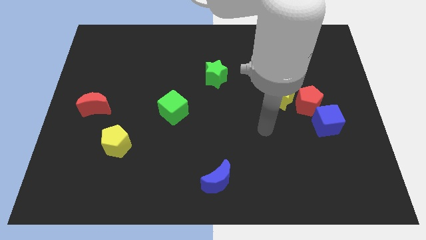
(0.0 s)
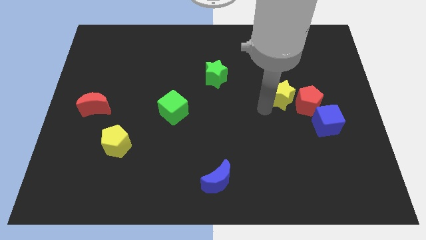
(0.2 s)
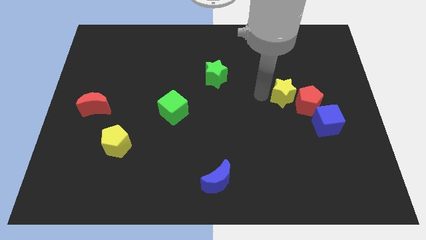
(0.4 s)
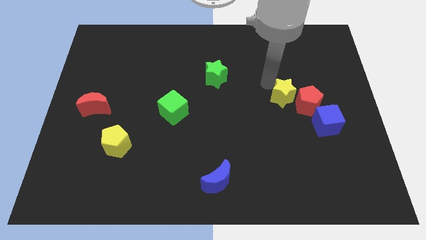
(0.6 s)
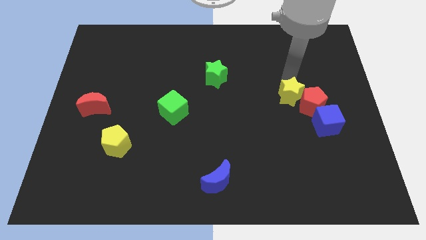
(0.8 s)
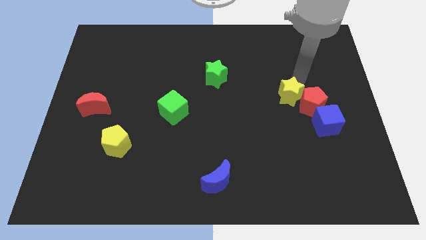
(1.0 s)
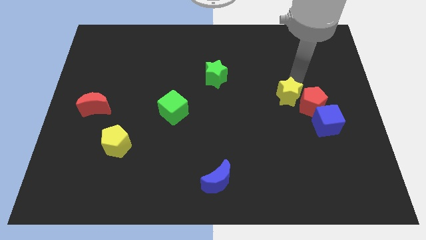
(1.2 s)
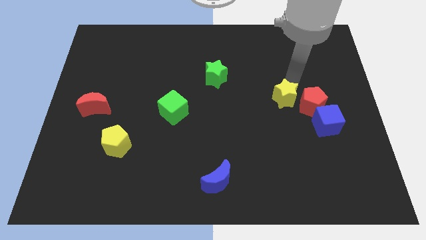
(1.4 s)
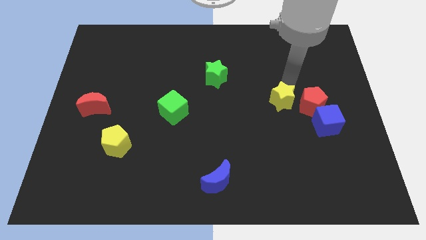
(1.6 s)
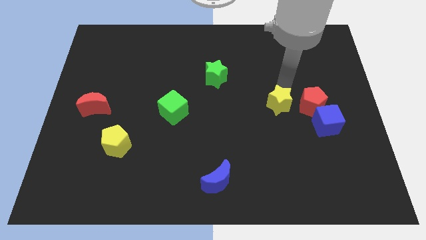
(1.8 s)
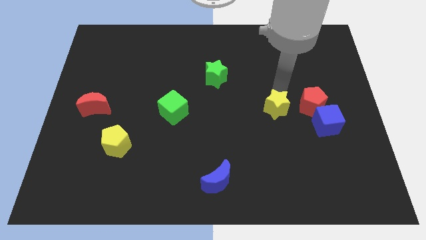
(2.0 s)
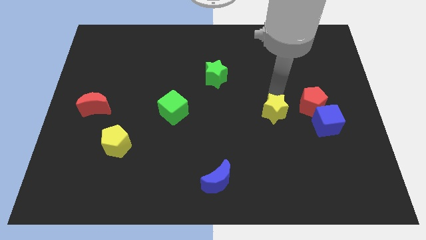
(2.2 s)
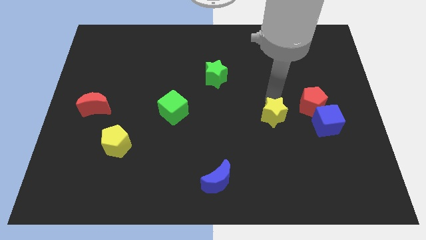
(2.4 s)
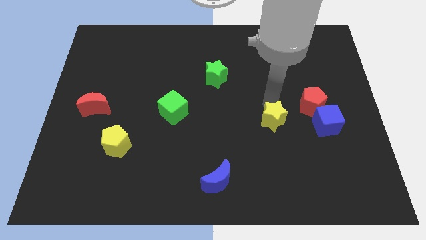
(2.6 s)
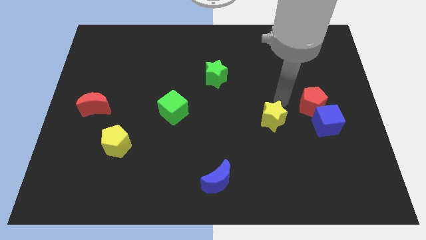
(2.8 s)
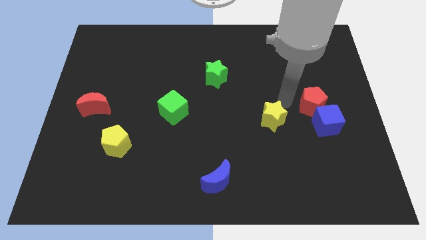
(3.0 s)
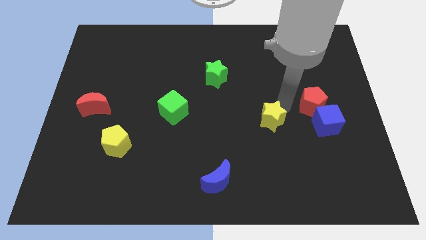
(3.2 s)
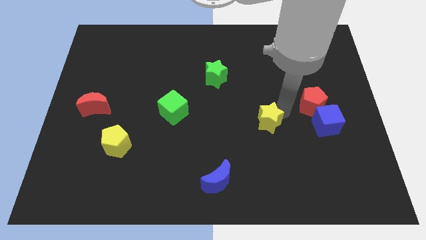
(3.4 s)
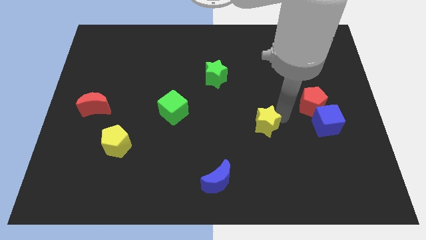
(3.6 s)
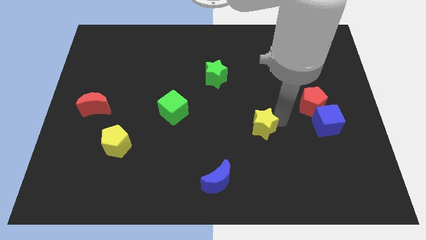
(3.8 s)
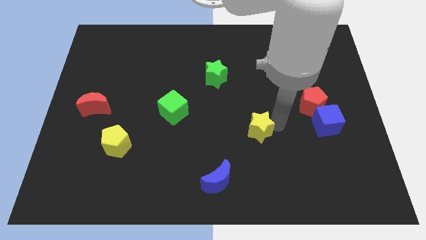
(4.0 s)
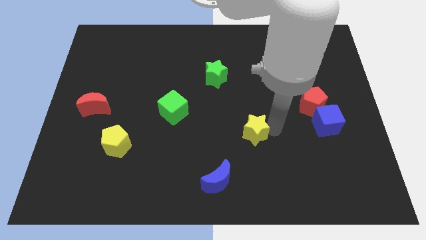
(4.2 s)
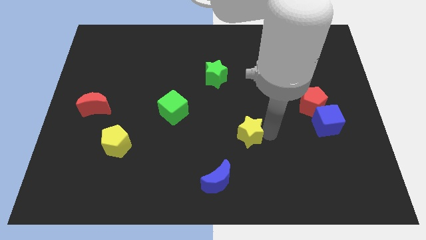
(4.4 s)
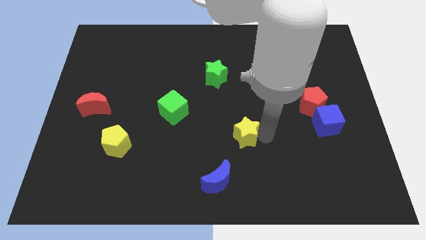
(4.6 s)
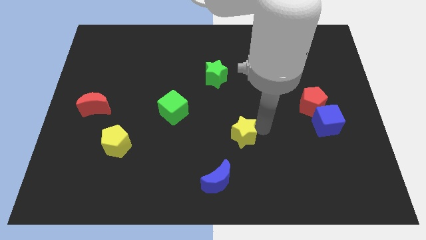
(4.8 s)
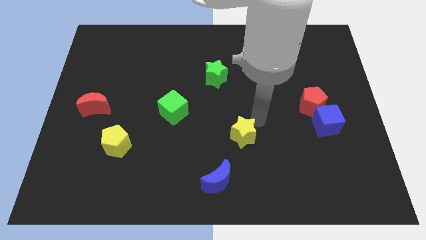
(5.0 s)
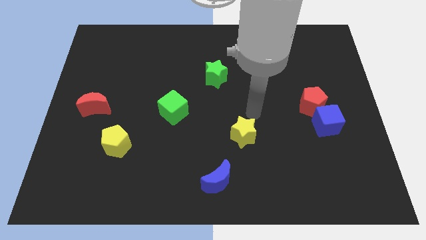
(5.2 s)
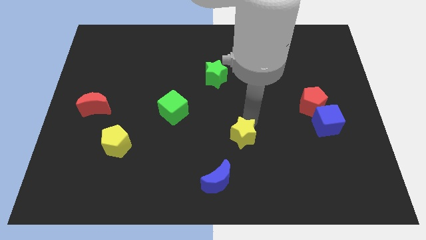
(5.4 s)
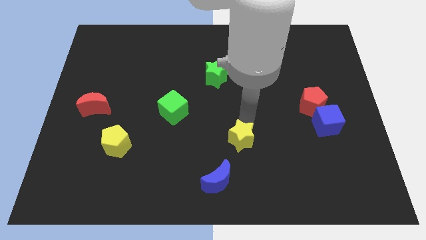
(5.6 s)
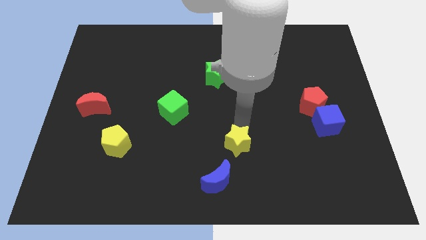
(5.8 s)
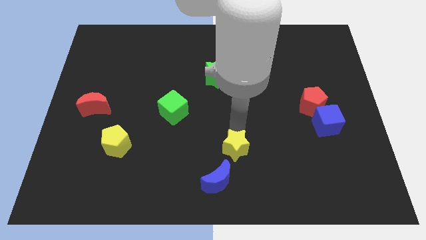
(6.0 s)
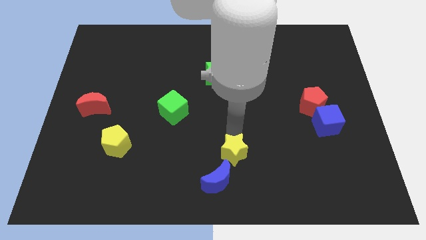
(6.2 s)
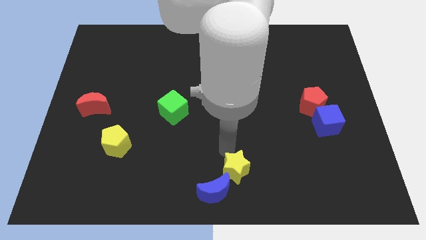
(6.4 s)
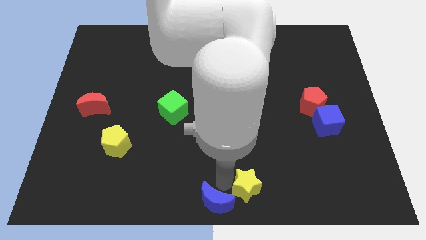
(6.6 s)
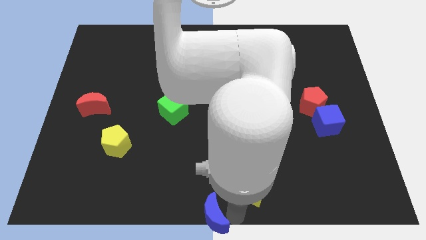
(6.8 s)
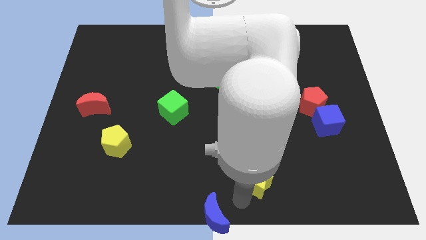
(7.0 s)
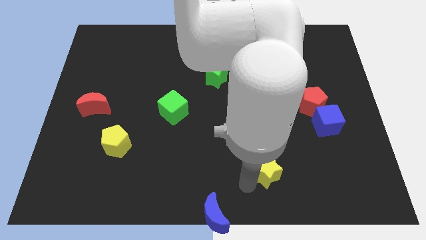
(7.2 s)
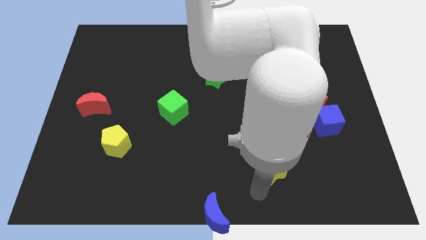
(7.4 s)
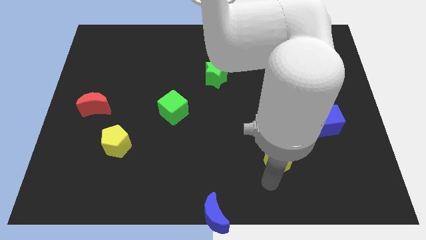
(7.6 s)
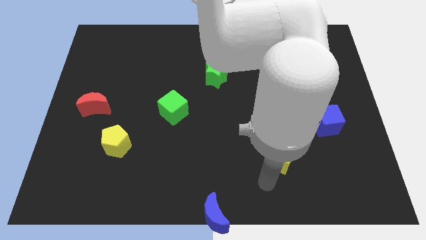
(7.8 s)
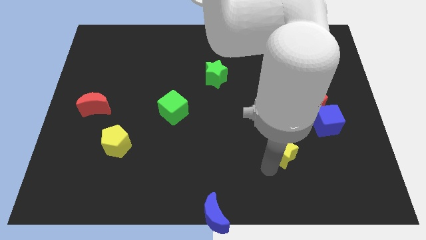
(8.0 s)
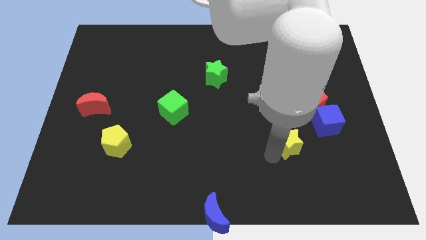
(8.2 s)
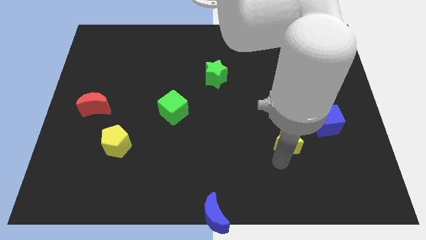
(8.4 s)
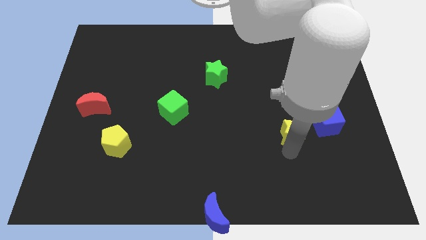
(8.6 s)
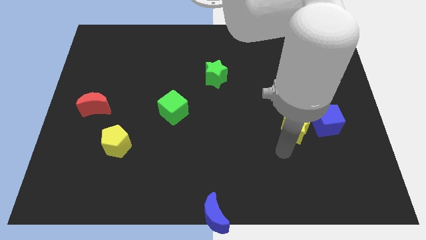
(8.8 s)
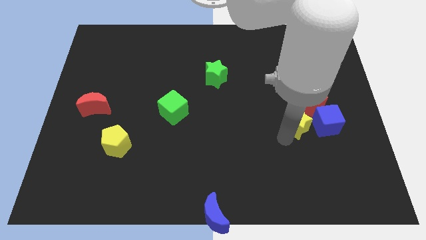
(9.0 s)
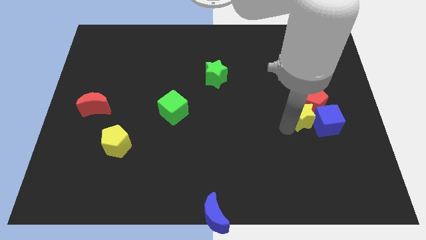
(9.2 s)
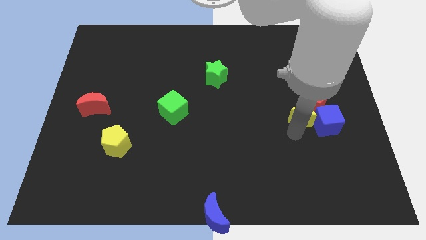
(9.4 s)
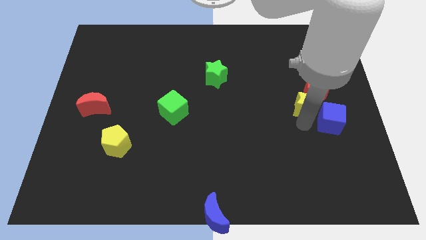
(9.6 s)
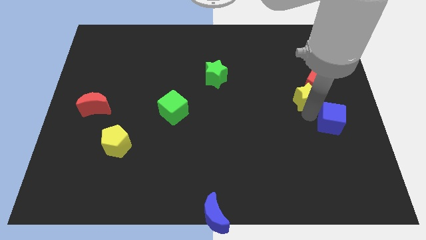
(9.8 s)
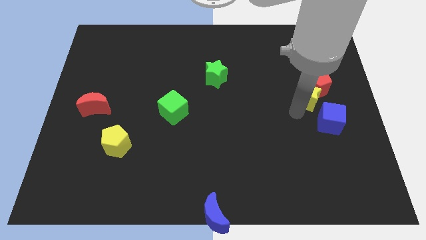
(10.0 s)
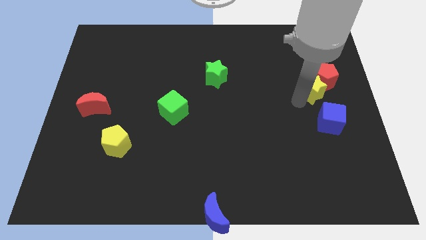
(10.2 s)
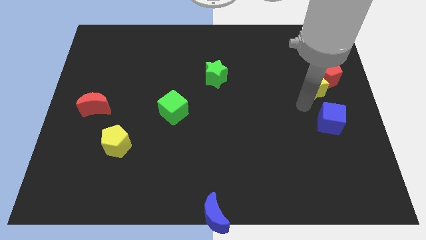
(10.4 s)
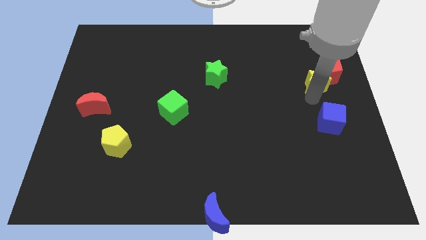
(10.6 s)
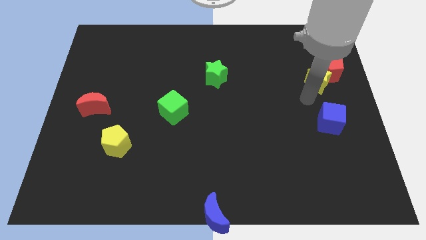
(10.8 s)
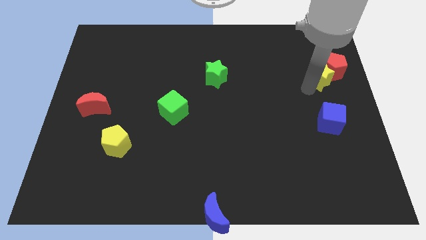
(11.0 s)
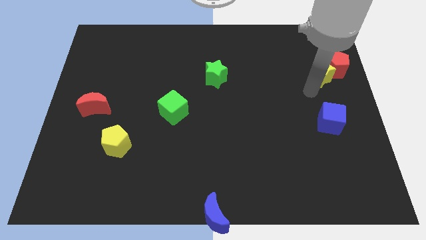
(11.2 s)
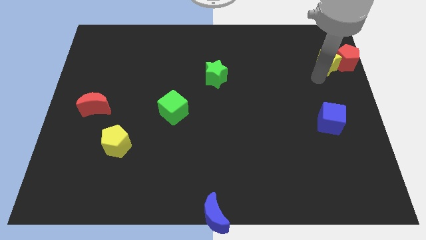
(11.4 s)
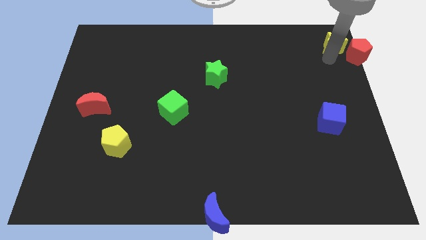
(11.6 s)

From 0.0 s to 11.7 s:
put the yellow star to the top right
